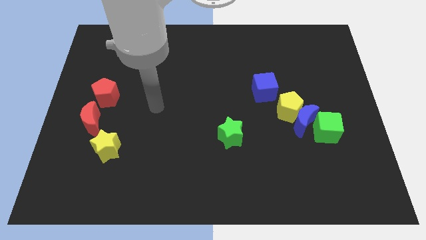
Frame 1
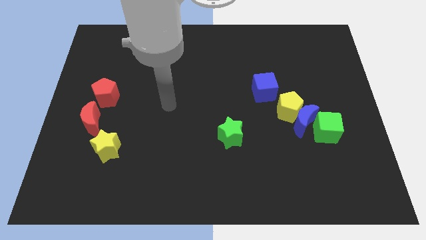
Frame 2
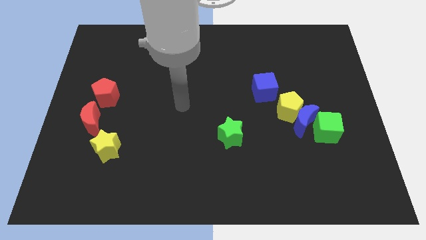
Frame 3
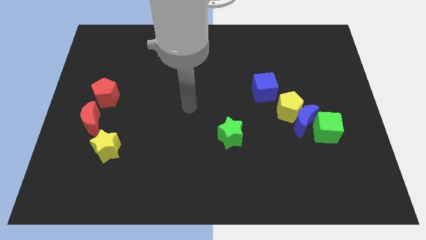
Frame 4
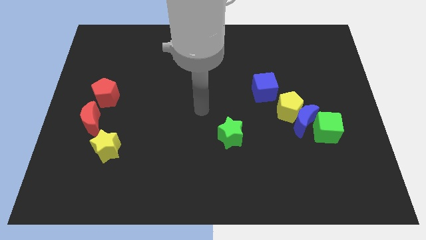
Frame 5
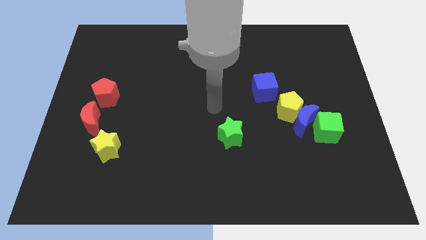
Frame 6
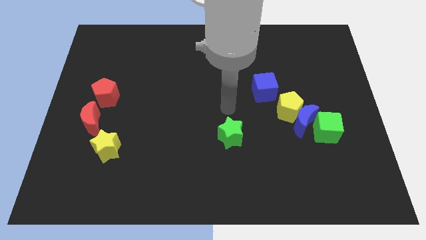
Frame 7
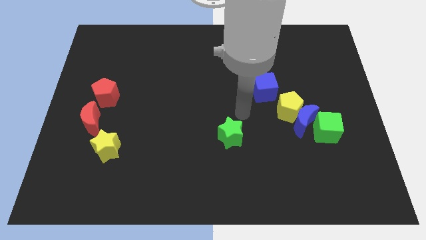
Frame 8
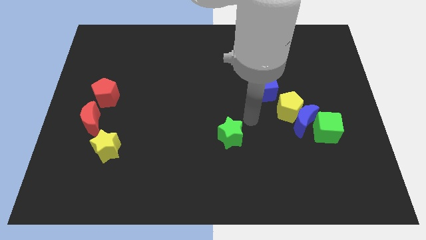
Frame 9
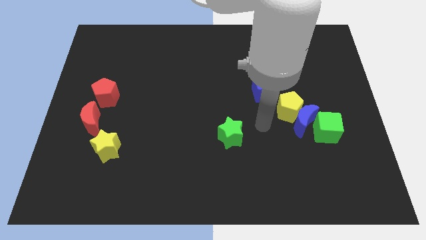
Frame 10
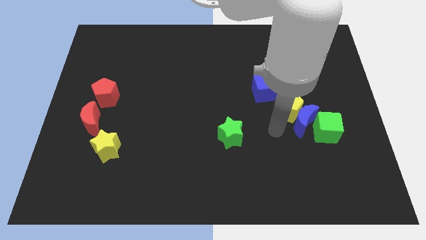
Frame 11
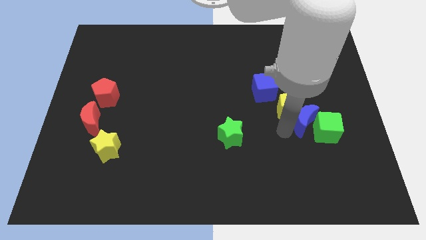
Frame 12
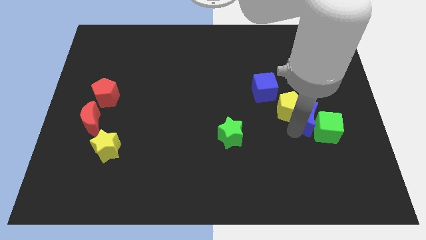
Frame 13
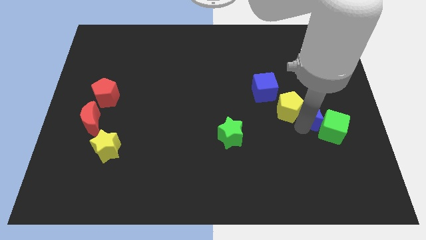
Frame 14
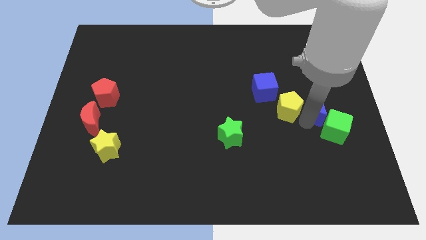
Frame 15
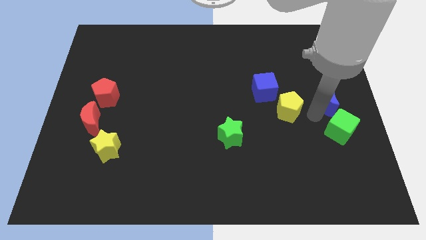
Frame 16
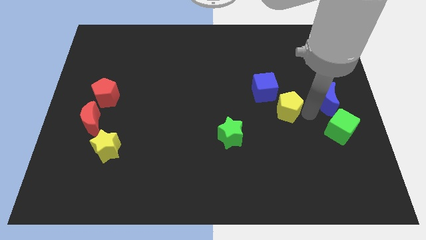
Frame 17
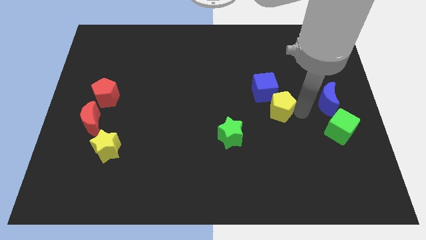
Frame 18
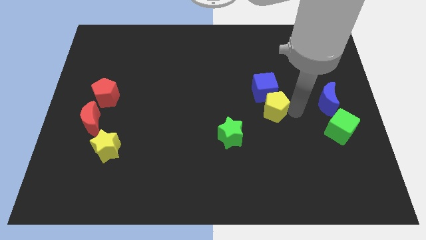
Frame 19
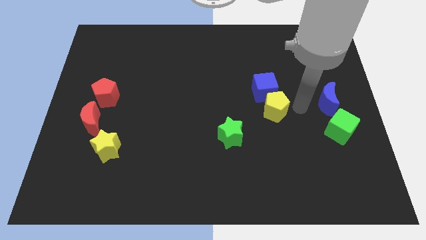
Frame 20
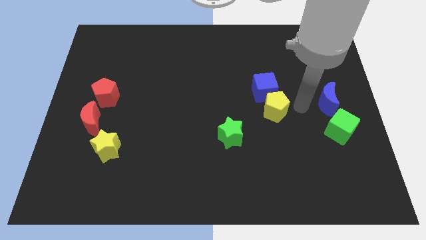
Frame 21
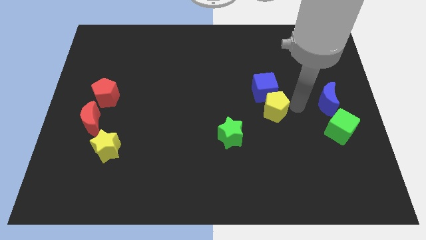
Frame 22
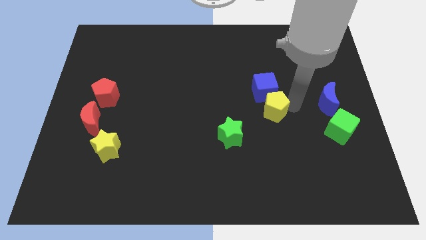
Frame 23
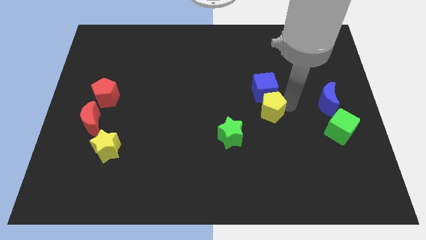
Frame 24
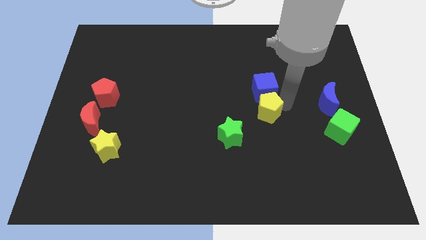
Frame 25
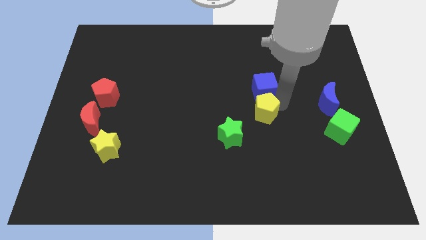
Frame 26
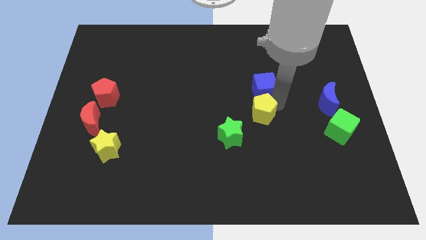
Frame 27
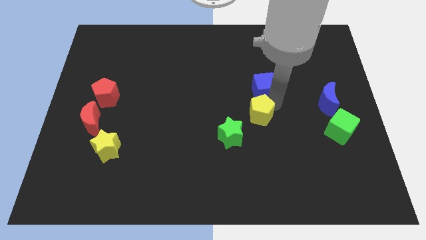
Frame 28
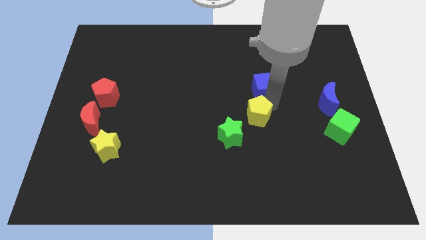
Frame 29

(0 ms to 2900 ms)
move the yellow pentagon a little left

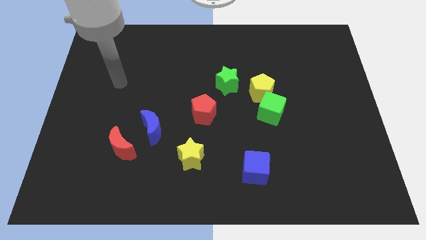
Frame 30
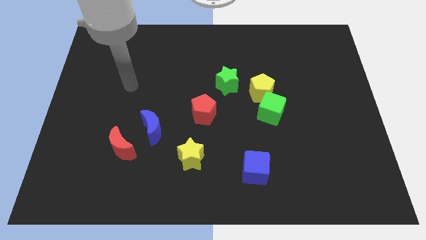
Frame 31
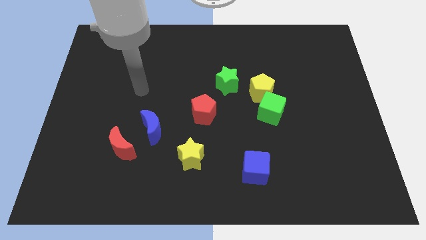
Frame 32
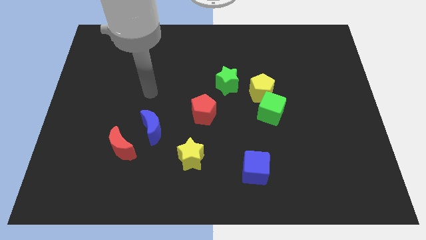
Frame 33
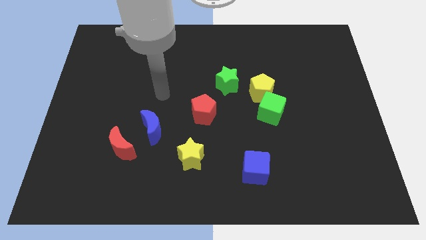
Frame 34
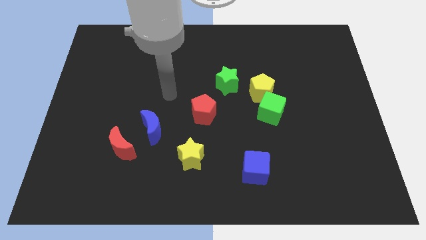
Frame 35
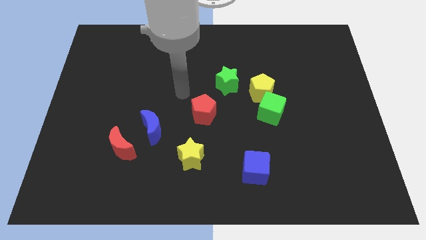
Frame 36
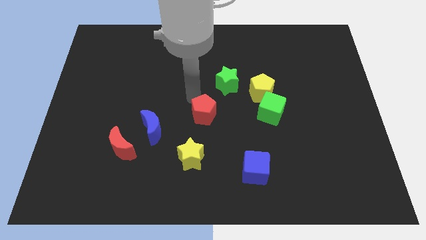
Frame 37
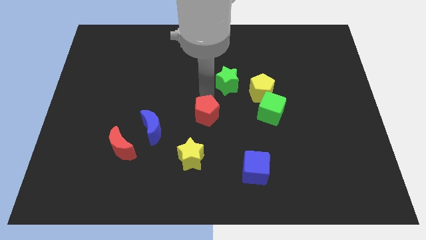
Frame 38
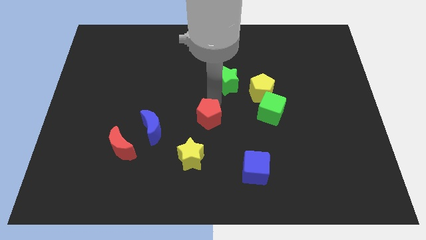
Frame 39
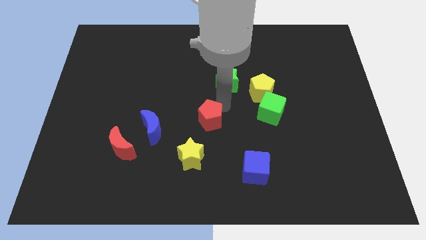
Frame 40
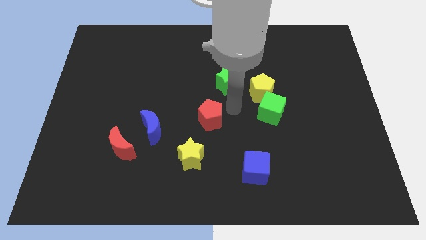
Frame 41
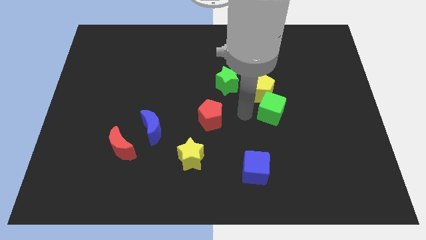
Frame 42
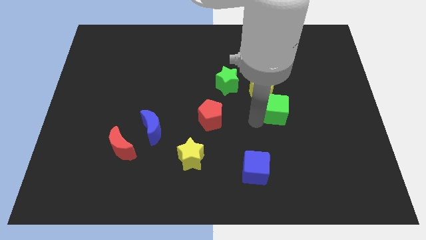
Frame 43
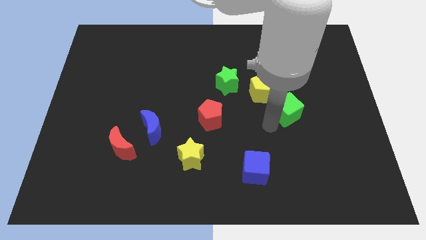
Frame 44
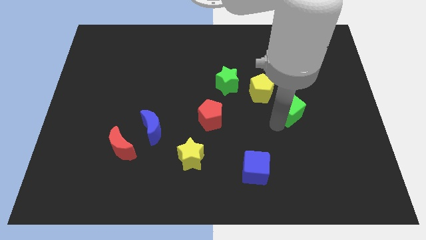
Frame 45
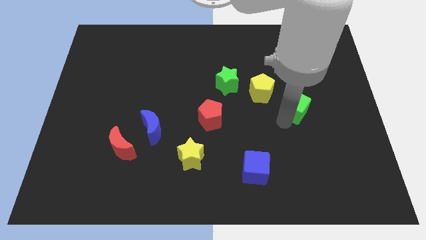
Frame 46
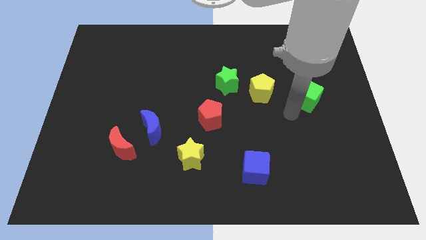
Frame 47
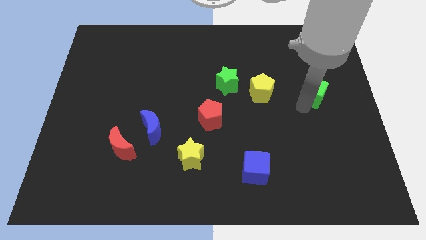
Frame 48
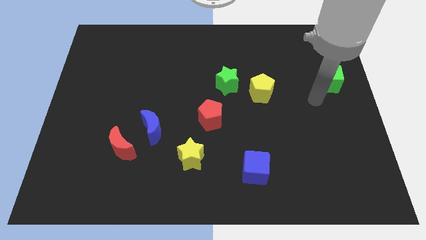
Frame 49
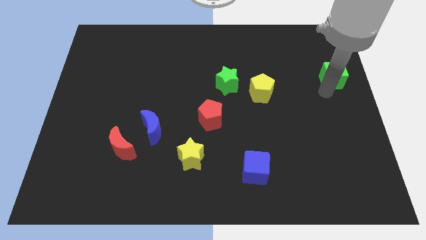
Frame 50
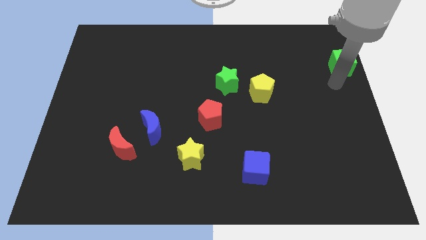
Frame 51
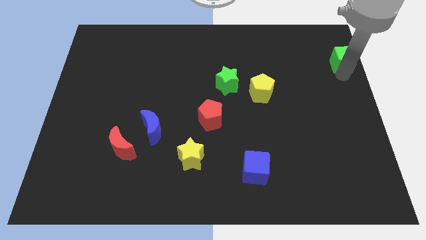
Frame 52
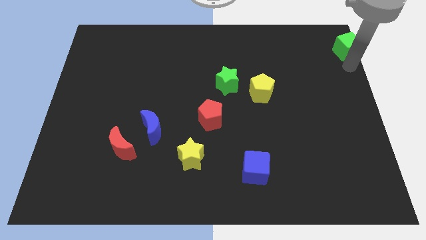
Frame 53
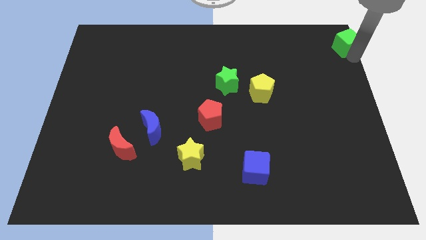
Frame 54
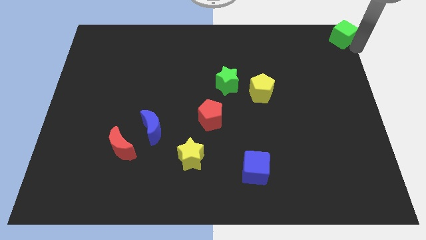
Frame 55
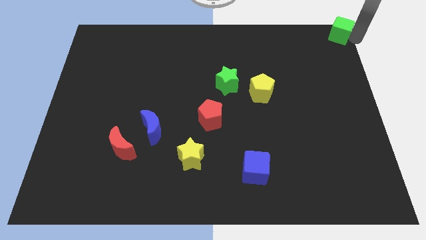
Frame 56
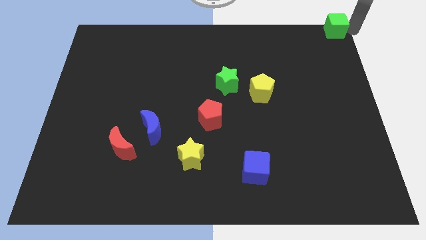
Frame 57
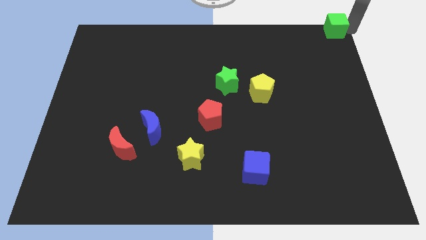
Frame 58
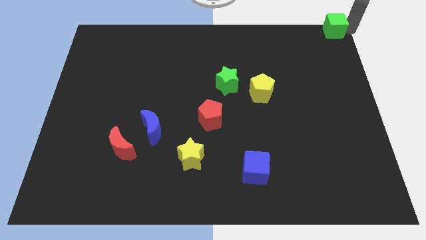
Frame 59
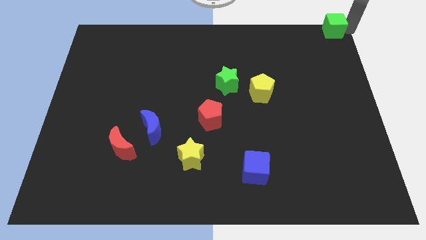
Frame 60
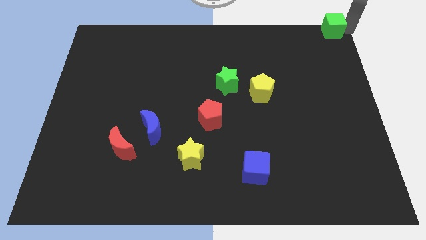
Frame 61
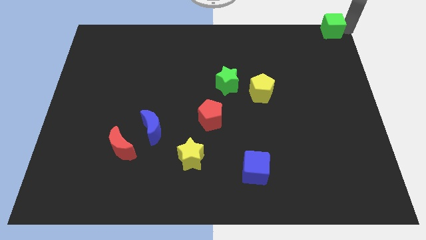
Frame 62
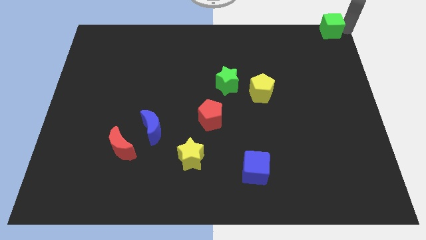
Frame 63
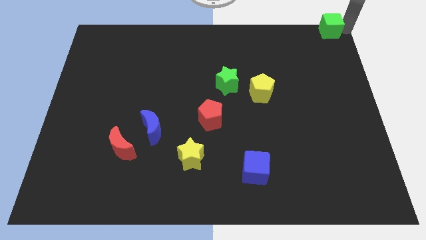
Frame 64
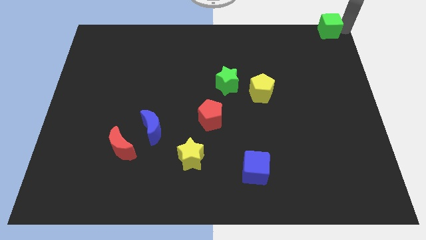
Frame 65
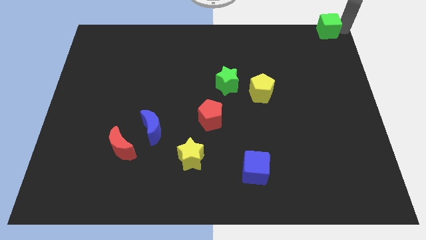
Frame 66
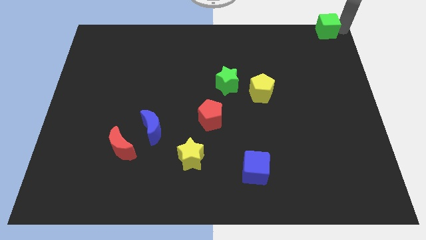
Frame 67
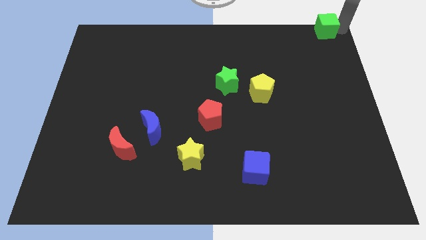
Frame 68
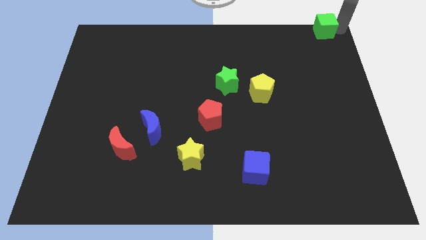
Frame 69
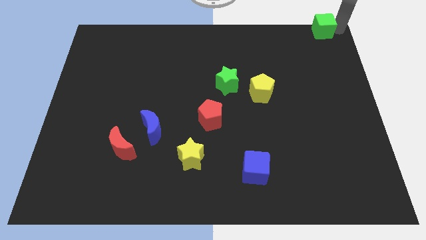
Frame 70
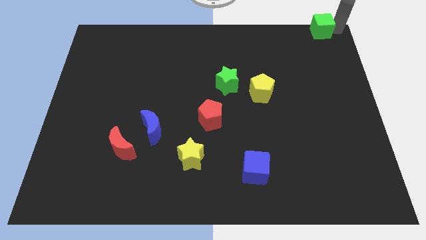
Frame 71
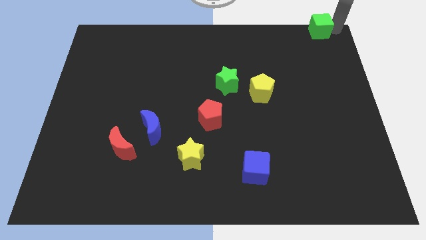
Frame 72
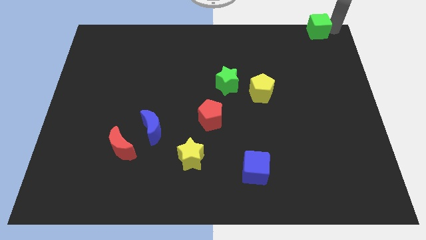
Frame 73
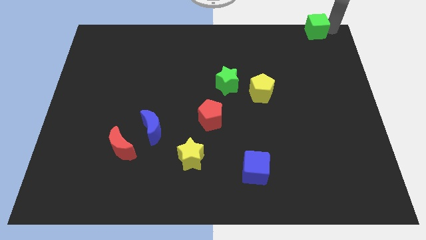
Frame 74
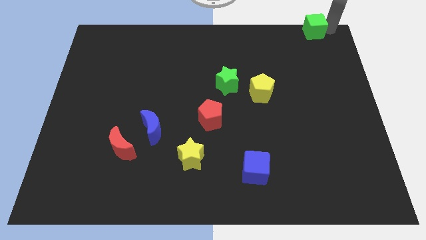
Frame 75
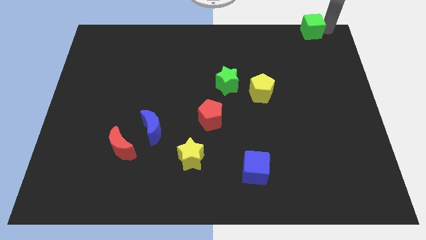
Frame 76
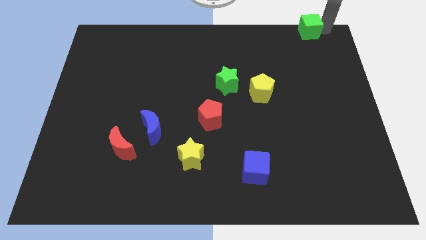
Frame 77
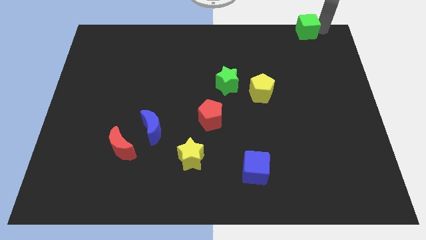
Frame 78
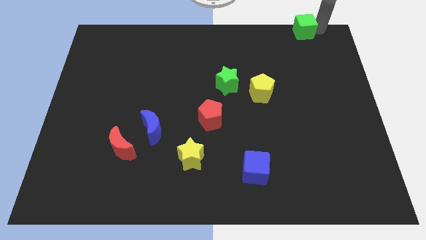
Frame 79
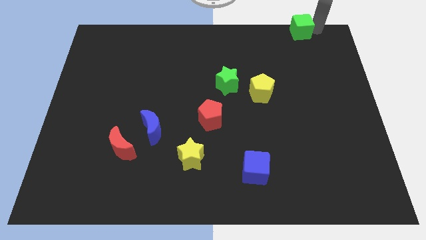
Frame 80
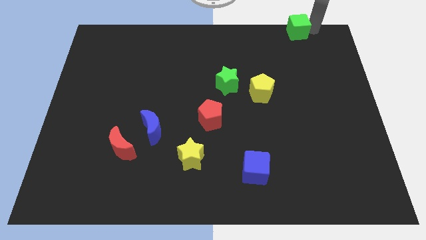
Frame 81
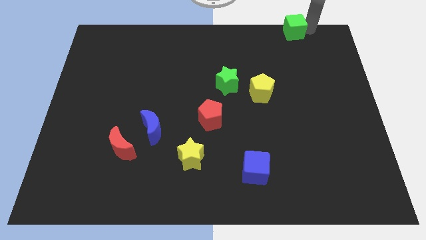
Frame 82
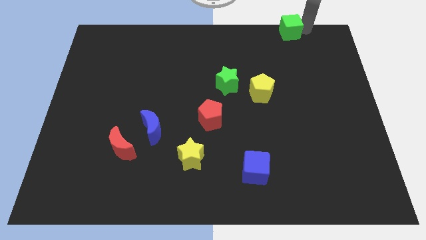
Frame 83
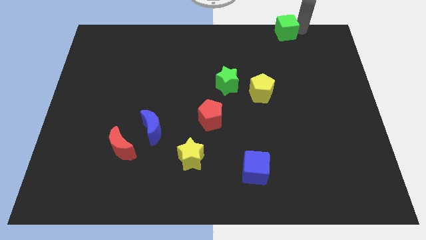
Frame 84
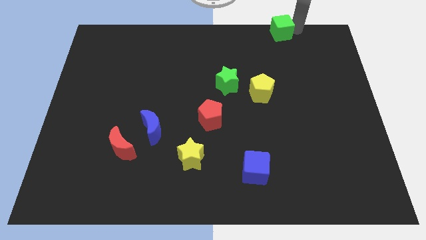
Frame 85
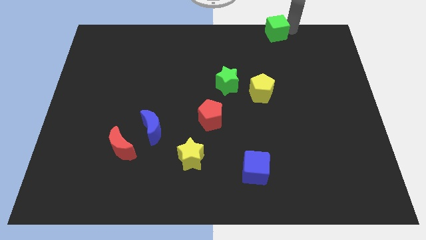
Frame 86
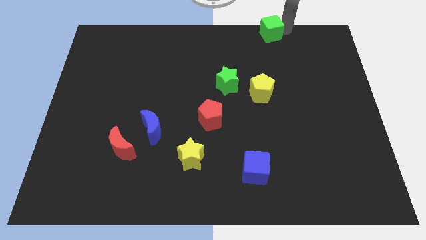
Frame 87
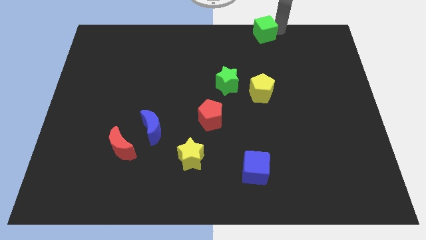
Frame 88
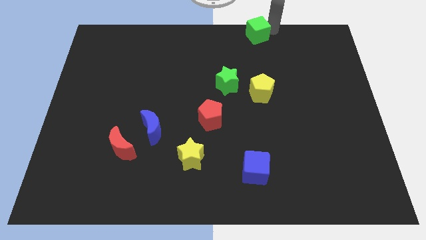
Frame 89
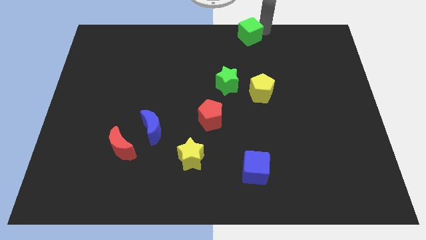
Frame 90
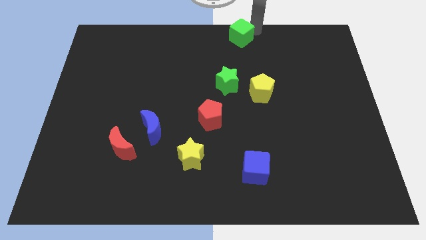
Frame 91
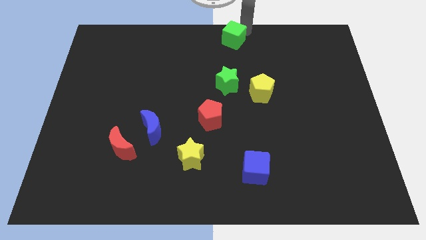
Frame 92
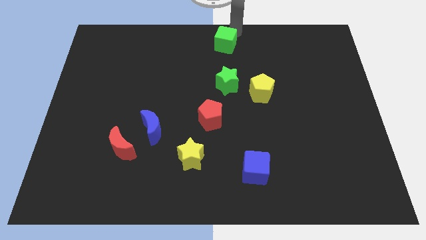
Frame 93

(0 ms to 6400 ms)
move the green cube upwards and left a little
